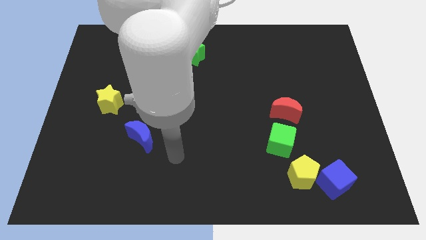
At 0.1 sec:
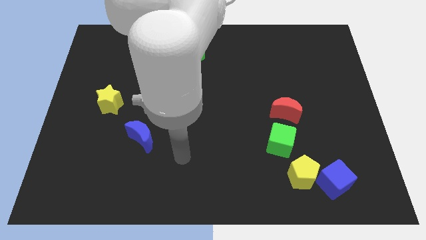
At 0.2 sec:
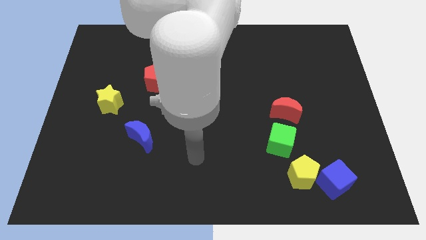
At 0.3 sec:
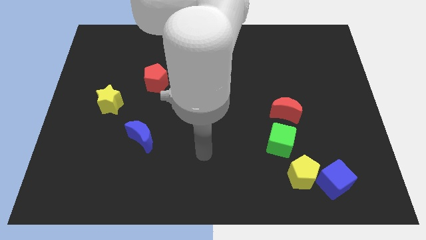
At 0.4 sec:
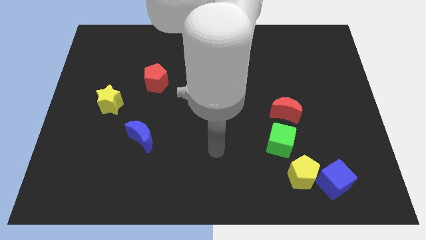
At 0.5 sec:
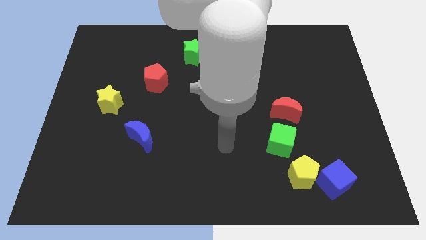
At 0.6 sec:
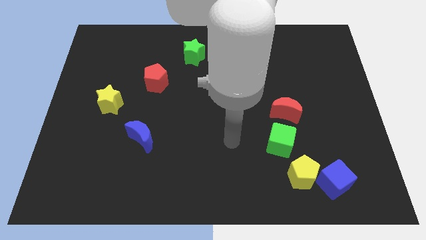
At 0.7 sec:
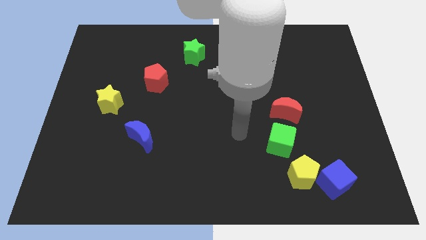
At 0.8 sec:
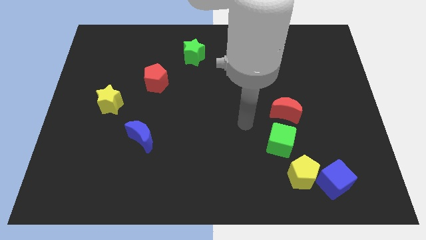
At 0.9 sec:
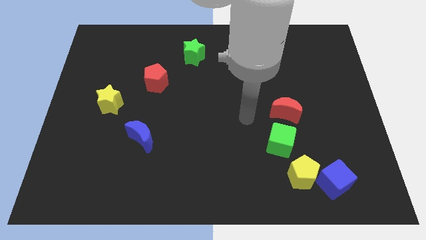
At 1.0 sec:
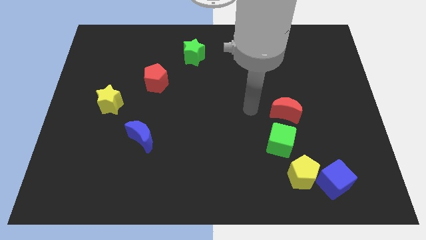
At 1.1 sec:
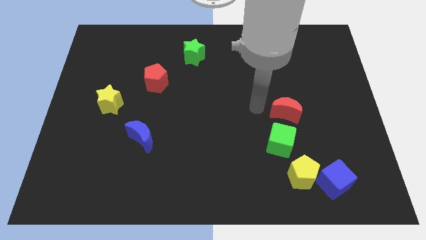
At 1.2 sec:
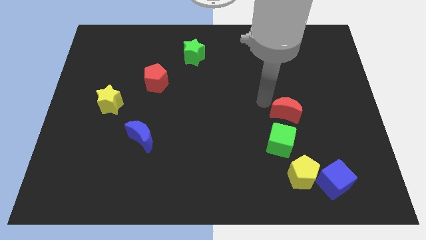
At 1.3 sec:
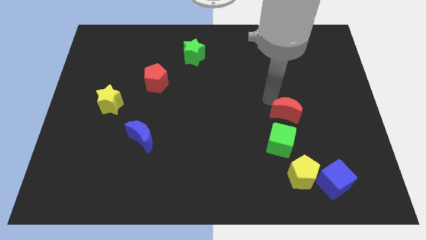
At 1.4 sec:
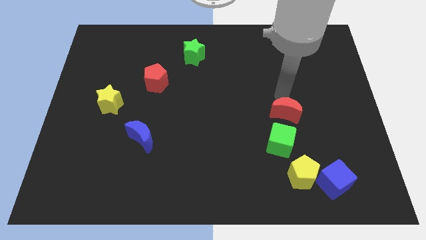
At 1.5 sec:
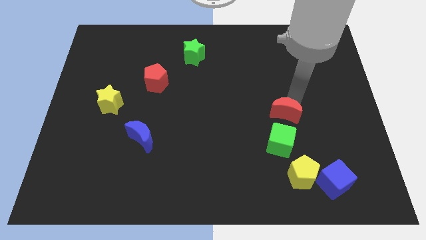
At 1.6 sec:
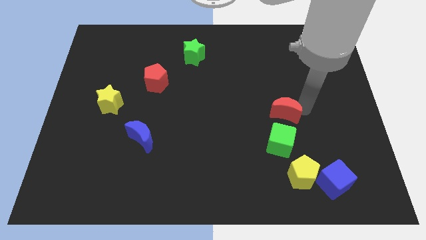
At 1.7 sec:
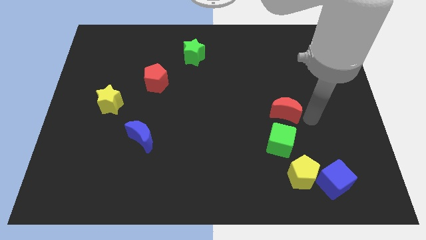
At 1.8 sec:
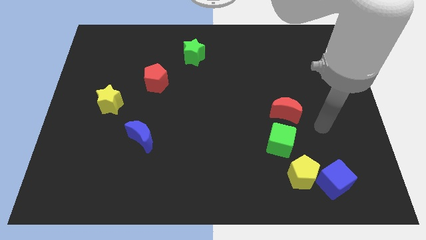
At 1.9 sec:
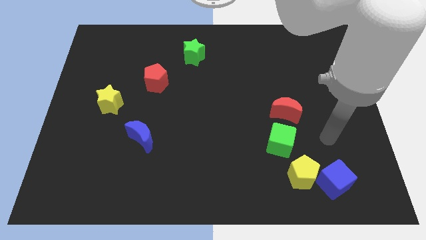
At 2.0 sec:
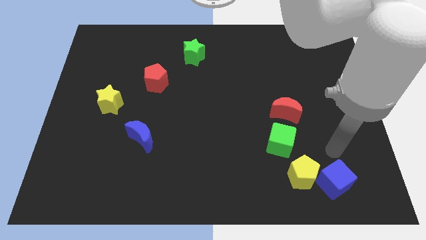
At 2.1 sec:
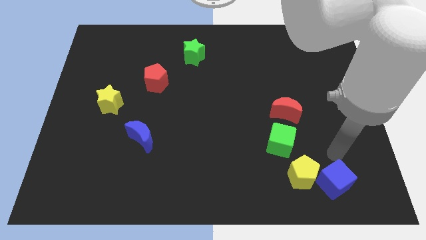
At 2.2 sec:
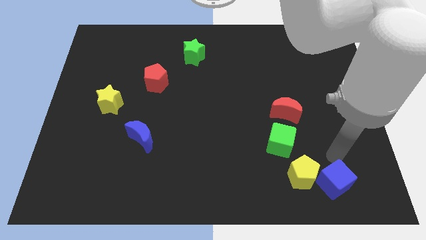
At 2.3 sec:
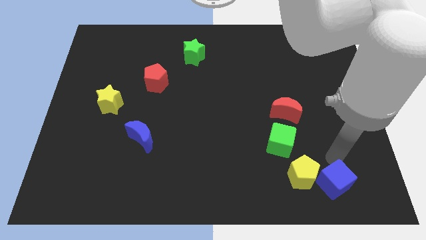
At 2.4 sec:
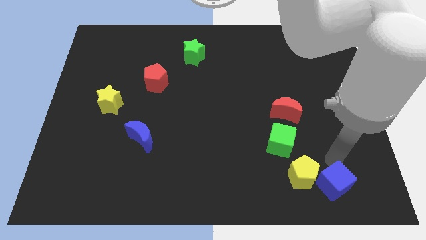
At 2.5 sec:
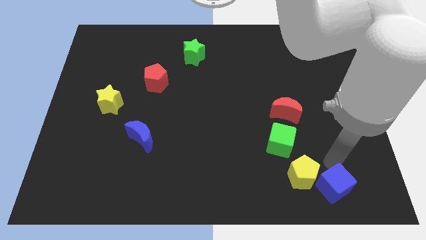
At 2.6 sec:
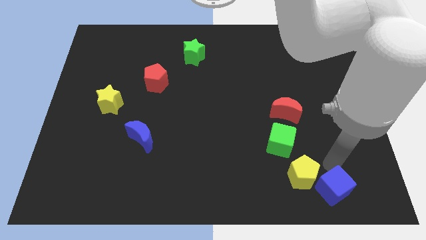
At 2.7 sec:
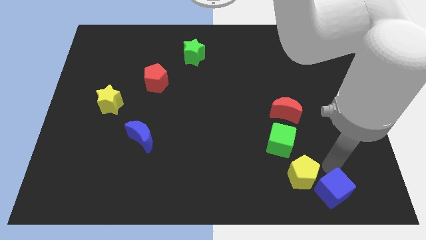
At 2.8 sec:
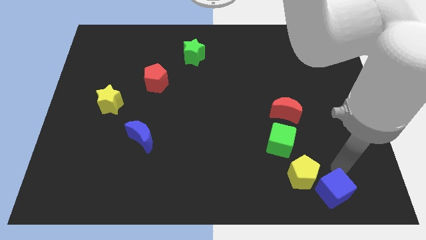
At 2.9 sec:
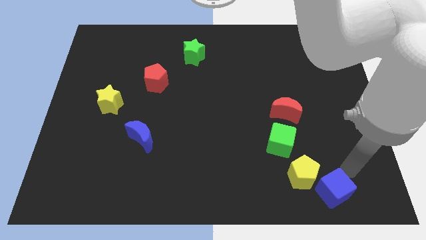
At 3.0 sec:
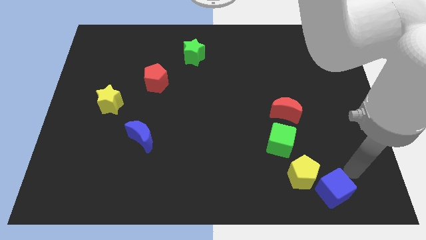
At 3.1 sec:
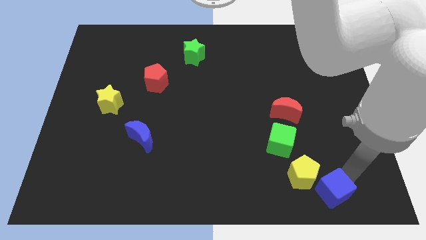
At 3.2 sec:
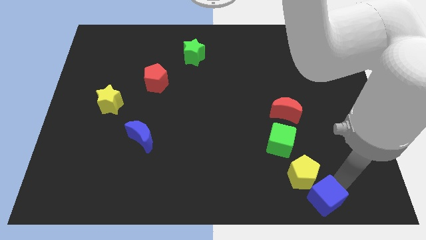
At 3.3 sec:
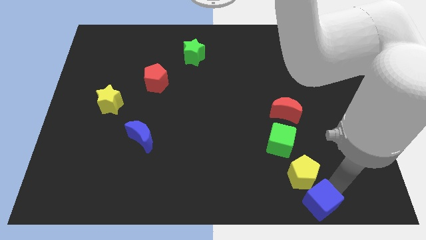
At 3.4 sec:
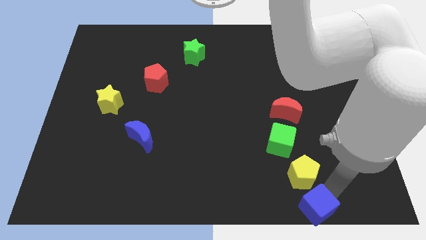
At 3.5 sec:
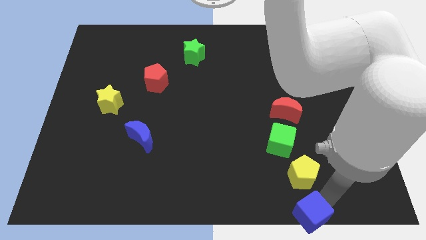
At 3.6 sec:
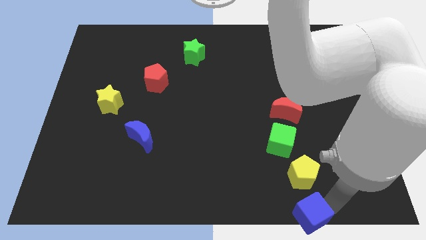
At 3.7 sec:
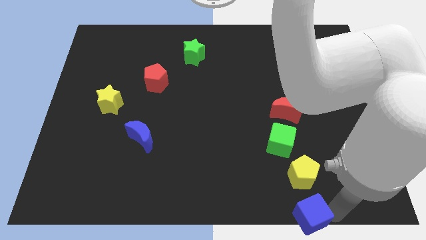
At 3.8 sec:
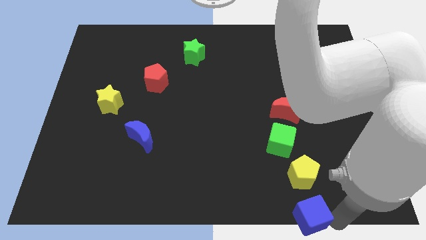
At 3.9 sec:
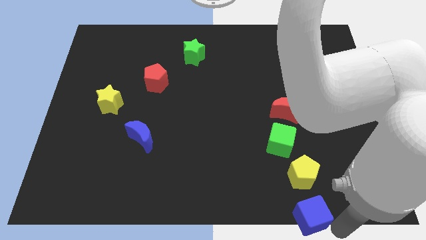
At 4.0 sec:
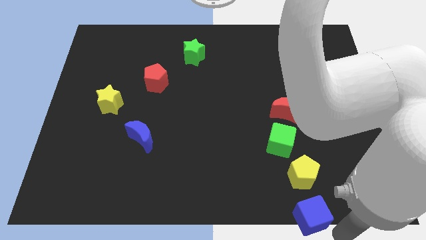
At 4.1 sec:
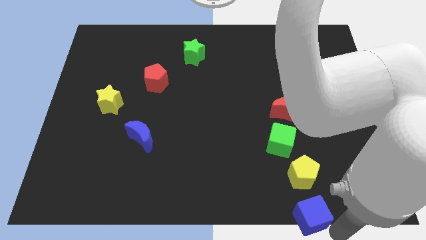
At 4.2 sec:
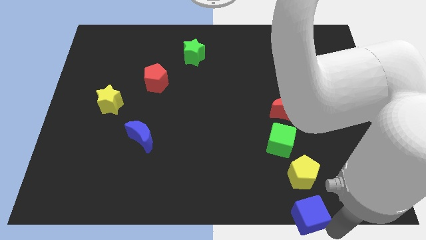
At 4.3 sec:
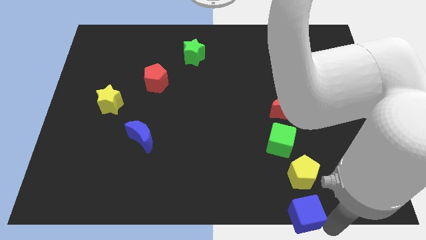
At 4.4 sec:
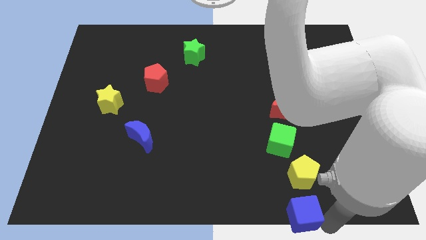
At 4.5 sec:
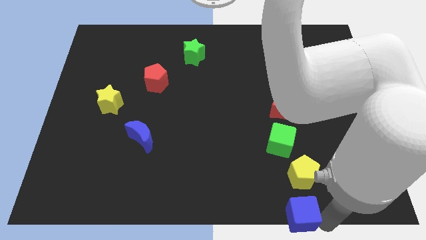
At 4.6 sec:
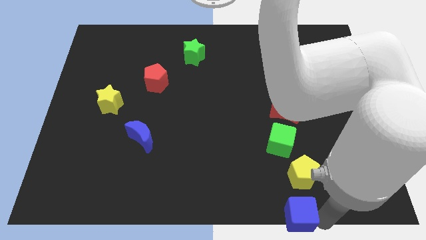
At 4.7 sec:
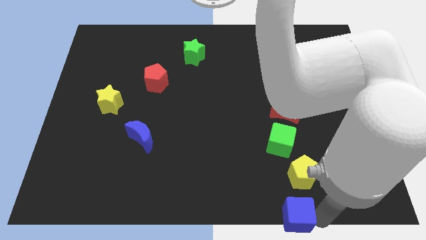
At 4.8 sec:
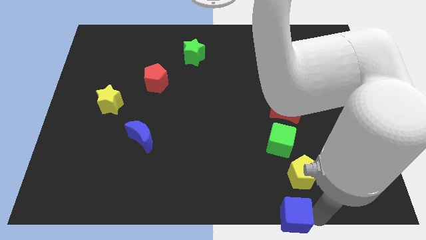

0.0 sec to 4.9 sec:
move the blue cube a little left

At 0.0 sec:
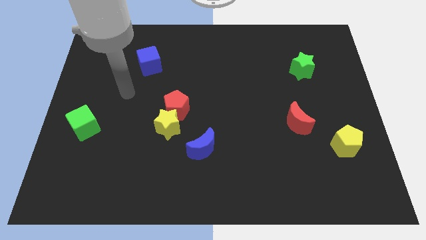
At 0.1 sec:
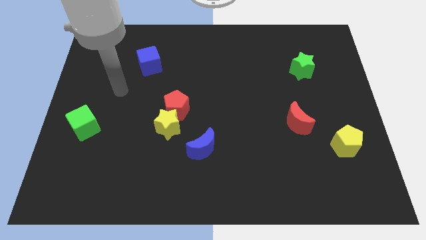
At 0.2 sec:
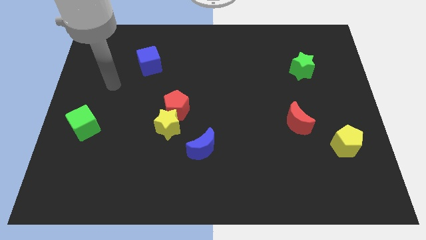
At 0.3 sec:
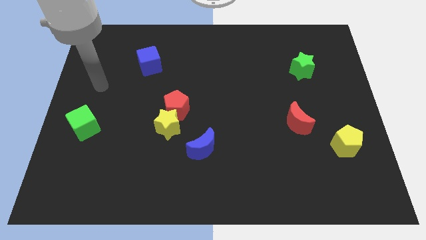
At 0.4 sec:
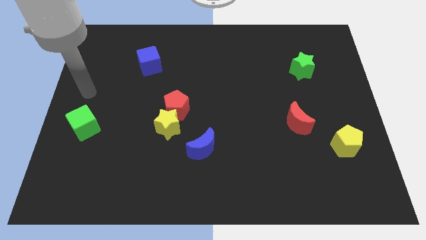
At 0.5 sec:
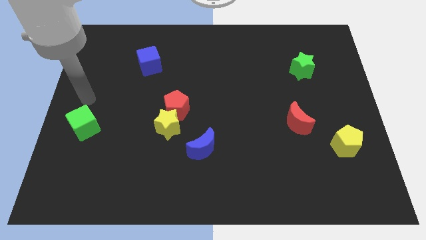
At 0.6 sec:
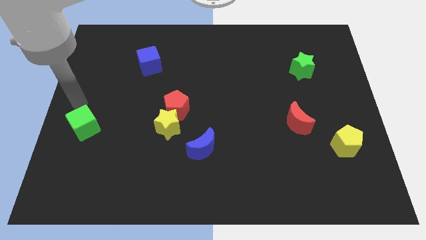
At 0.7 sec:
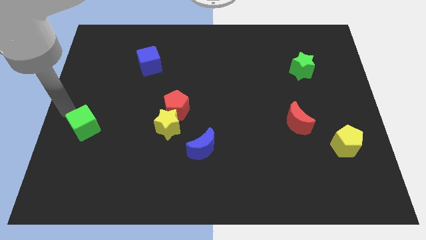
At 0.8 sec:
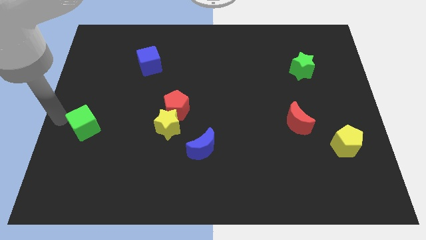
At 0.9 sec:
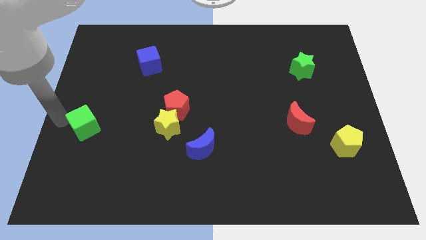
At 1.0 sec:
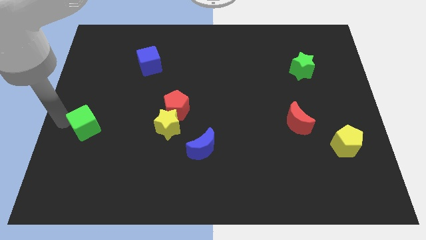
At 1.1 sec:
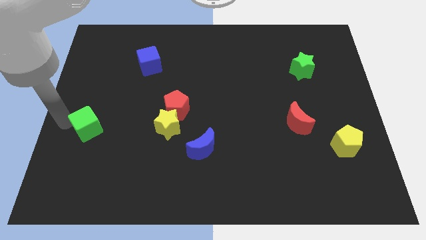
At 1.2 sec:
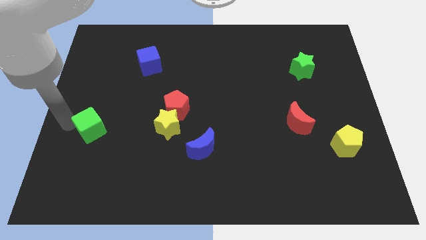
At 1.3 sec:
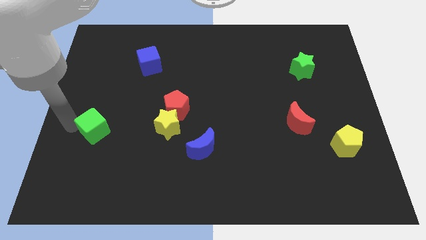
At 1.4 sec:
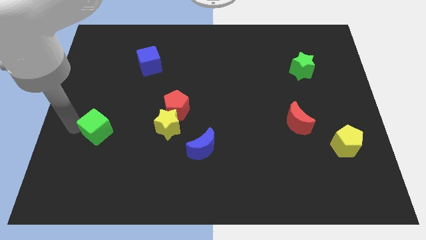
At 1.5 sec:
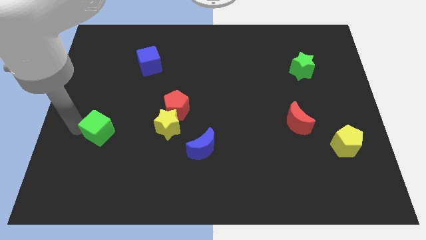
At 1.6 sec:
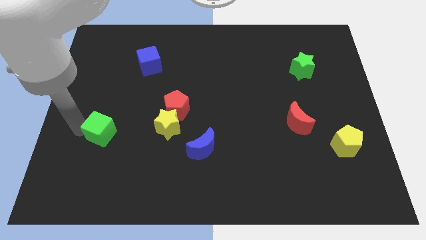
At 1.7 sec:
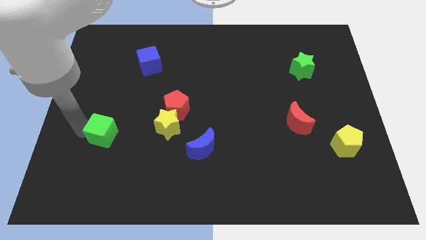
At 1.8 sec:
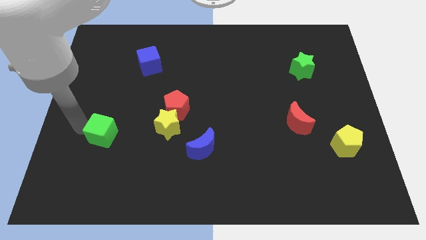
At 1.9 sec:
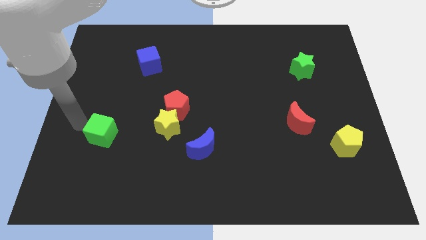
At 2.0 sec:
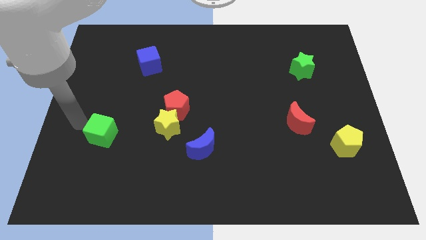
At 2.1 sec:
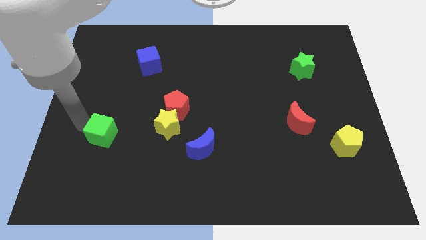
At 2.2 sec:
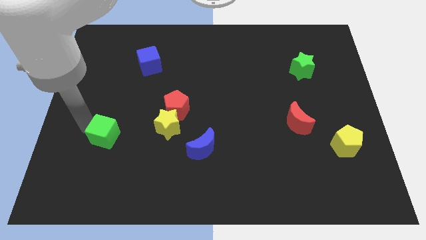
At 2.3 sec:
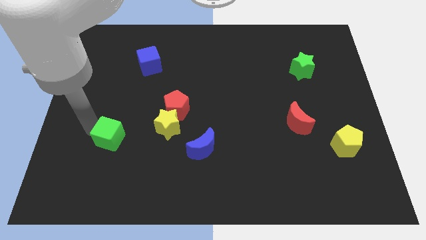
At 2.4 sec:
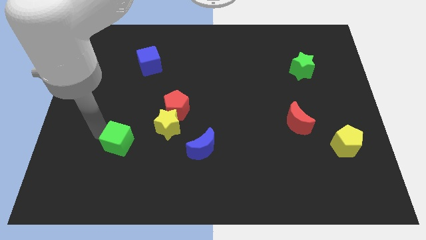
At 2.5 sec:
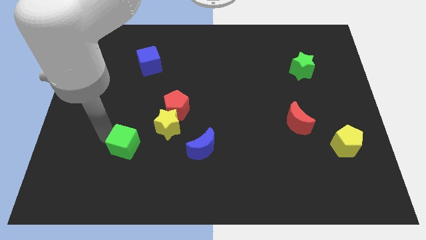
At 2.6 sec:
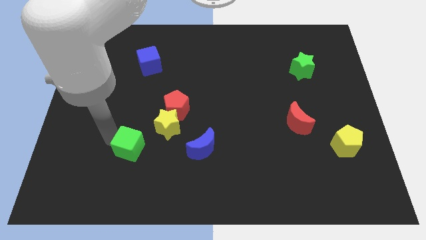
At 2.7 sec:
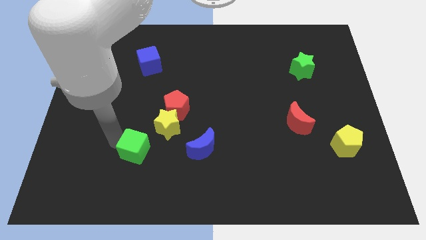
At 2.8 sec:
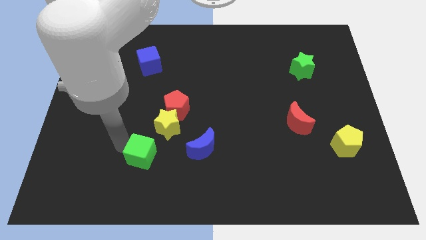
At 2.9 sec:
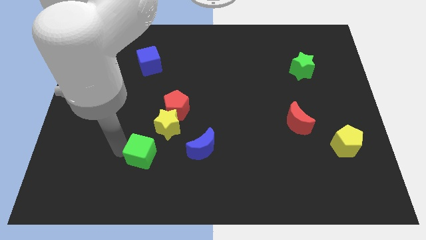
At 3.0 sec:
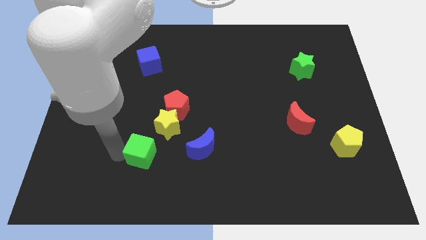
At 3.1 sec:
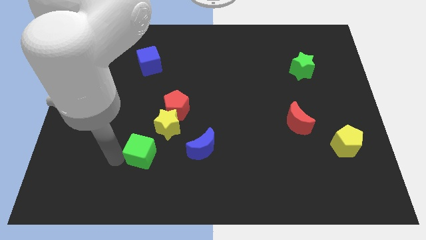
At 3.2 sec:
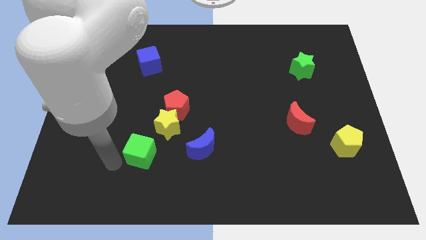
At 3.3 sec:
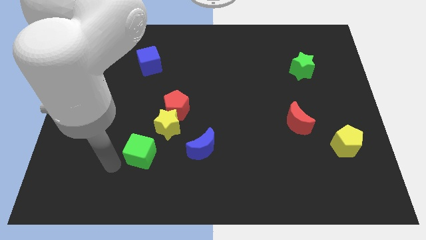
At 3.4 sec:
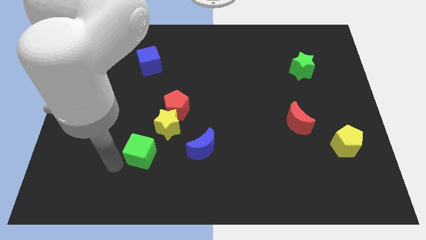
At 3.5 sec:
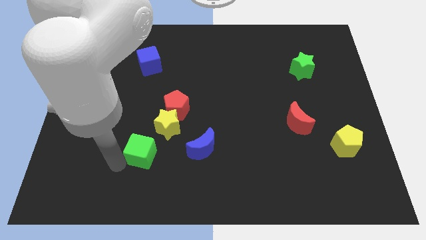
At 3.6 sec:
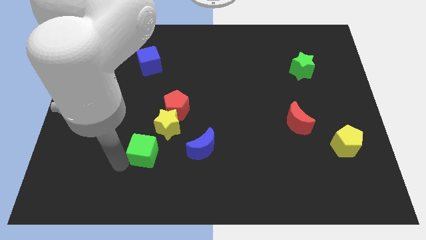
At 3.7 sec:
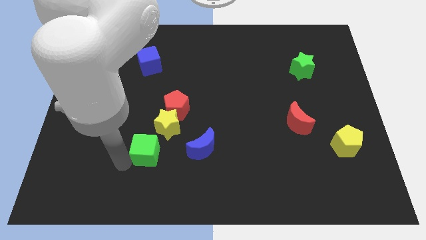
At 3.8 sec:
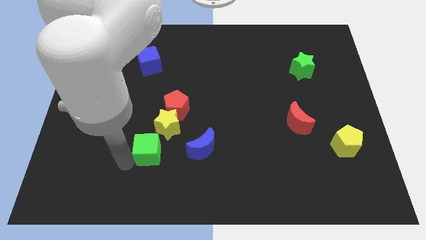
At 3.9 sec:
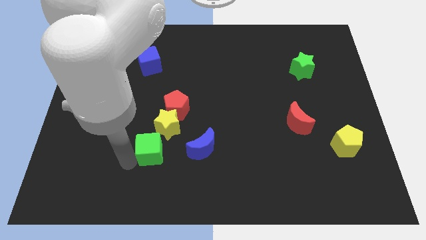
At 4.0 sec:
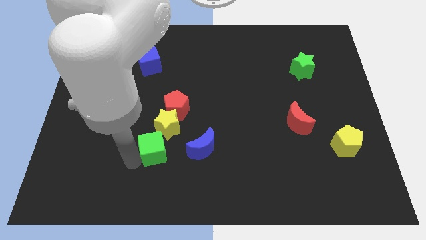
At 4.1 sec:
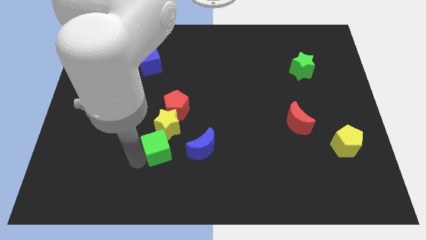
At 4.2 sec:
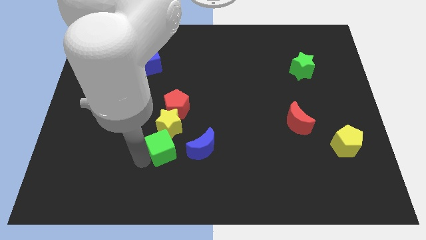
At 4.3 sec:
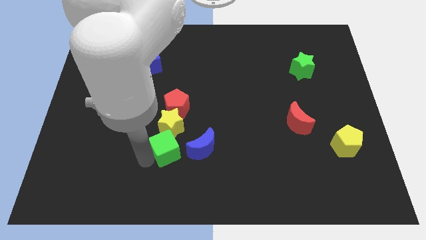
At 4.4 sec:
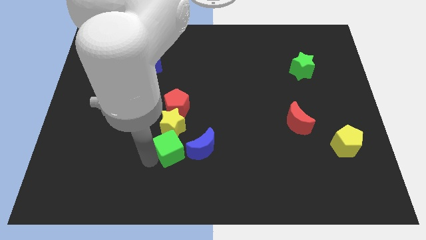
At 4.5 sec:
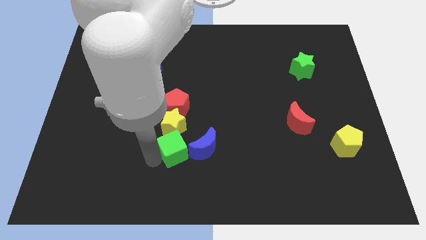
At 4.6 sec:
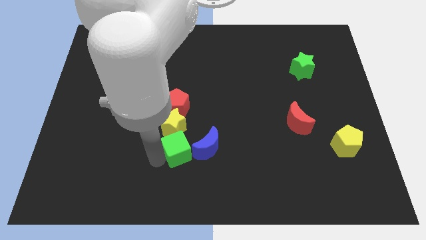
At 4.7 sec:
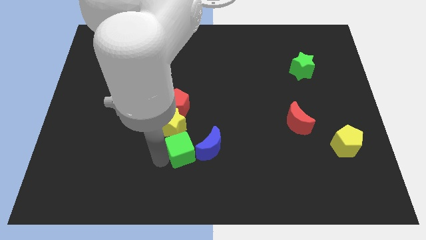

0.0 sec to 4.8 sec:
push the green cube right
